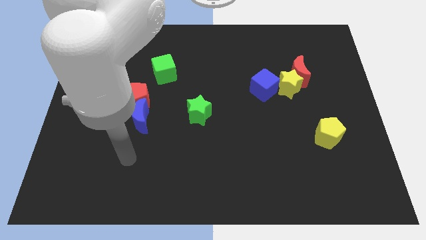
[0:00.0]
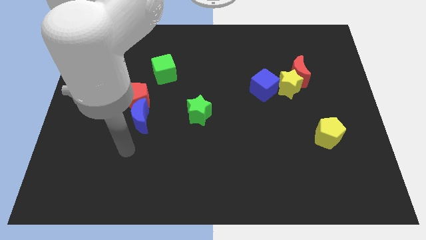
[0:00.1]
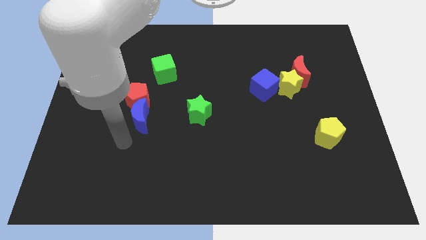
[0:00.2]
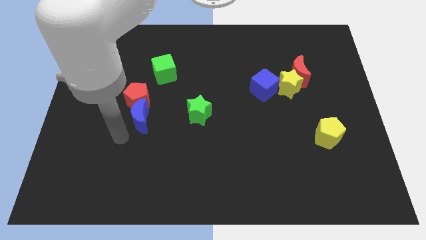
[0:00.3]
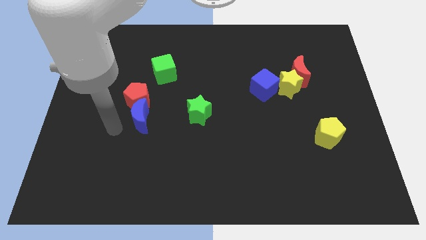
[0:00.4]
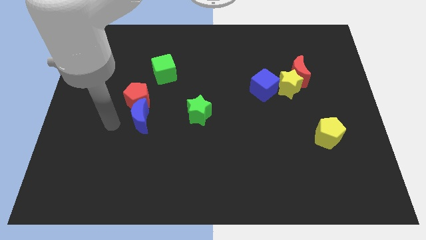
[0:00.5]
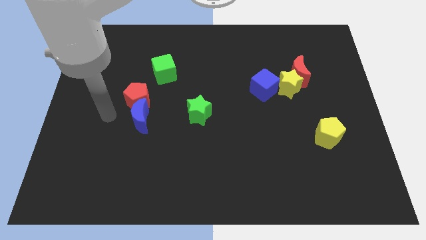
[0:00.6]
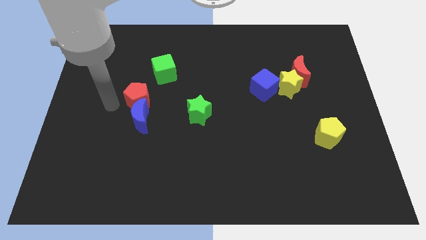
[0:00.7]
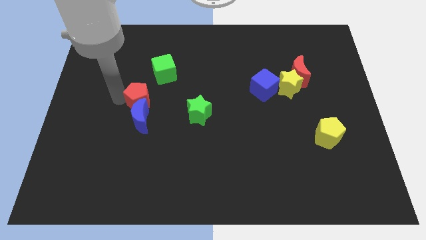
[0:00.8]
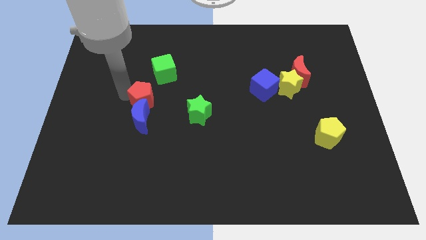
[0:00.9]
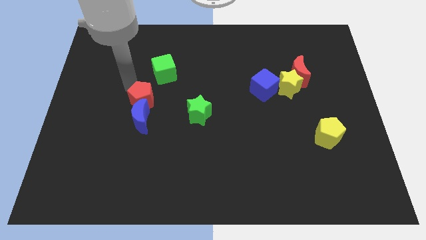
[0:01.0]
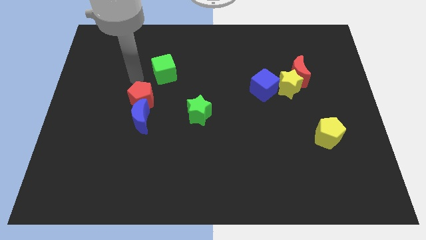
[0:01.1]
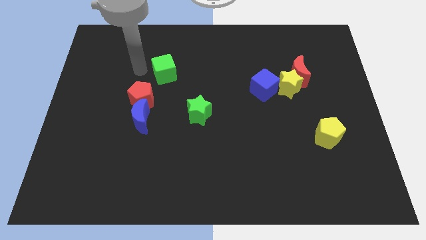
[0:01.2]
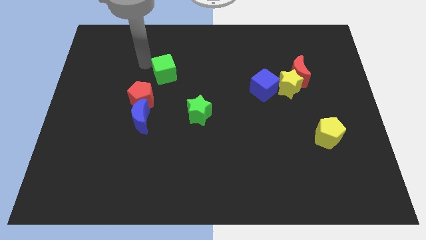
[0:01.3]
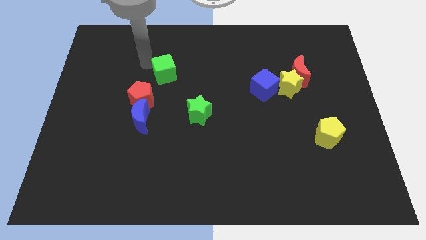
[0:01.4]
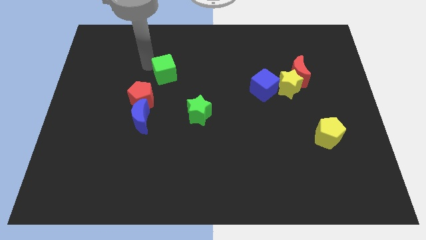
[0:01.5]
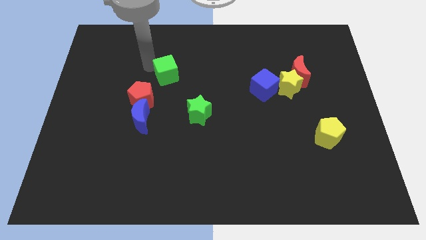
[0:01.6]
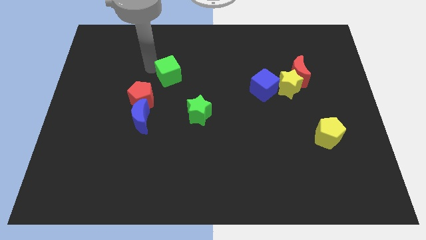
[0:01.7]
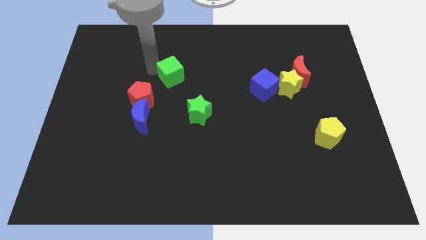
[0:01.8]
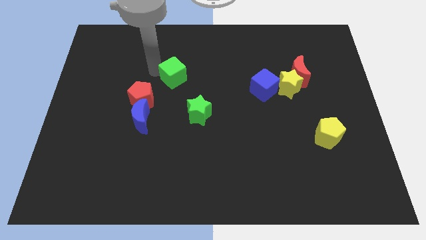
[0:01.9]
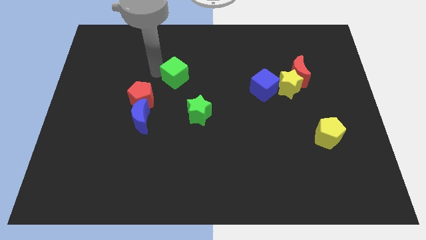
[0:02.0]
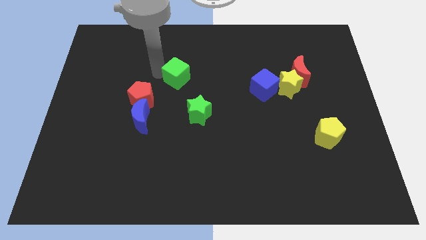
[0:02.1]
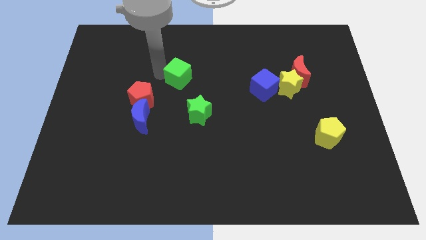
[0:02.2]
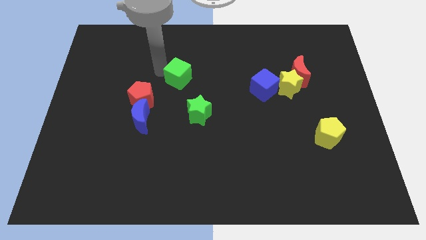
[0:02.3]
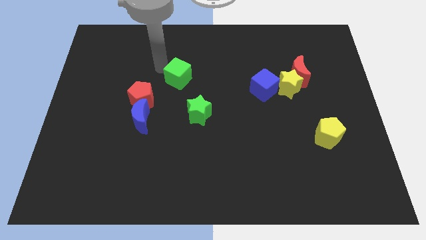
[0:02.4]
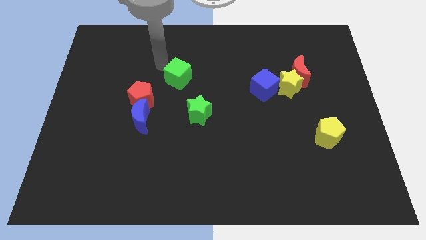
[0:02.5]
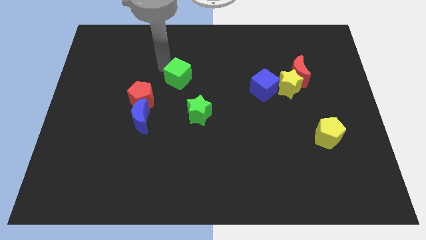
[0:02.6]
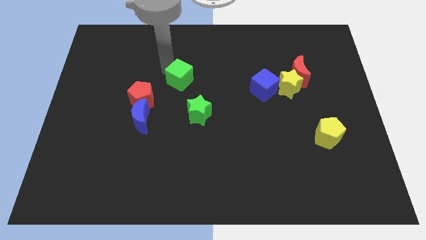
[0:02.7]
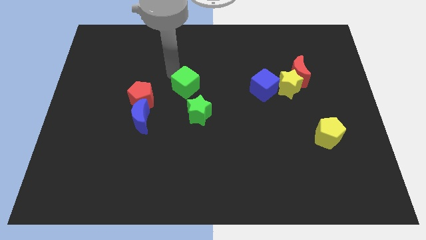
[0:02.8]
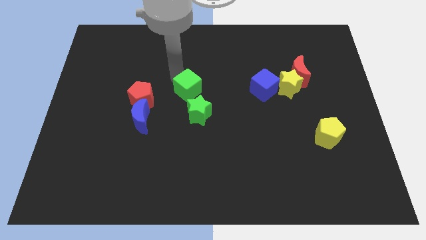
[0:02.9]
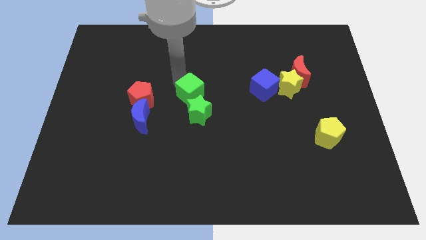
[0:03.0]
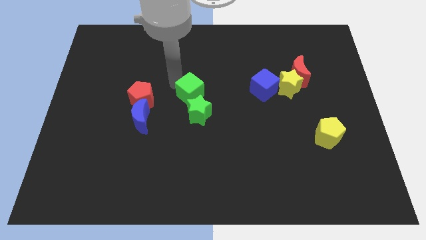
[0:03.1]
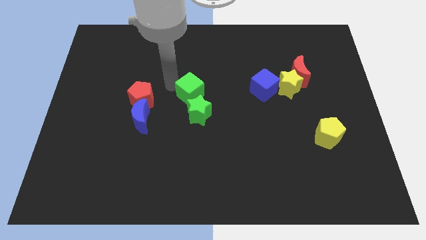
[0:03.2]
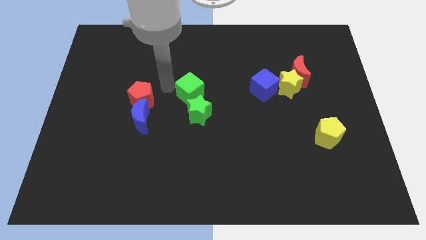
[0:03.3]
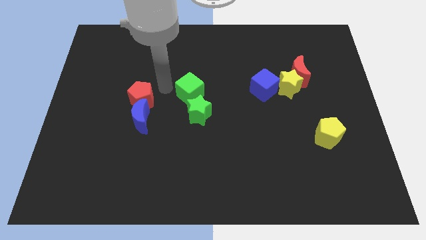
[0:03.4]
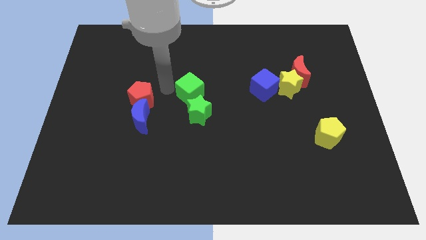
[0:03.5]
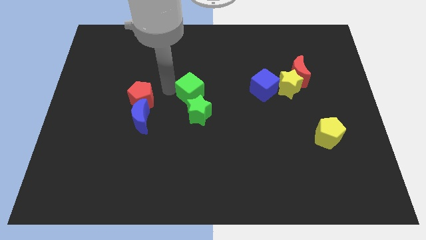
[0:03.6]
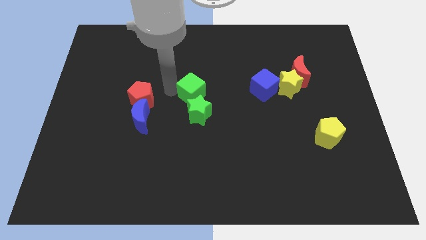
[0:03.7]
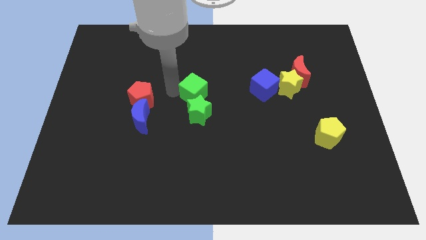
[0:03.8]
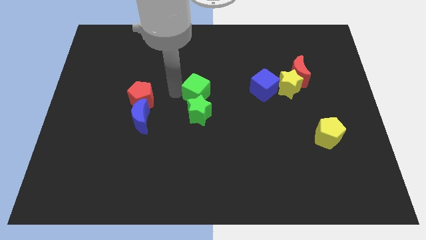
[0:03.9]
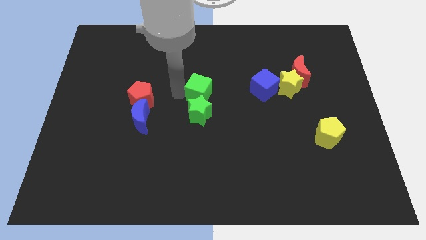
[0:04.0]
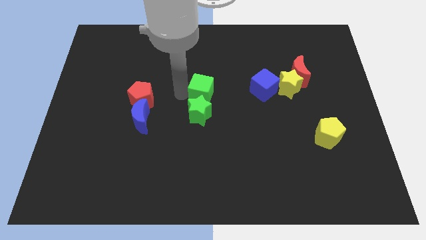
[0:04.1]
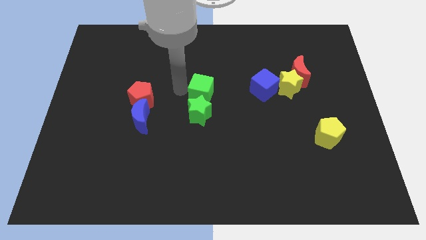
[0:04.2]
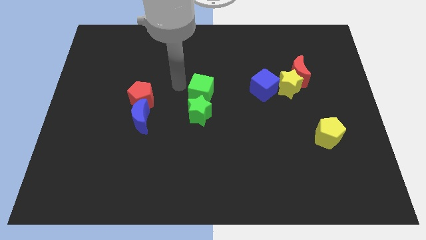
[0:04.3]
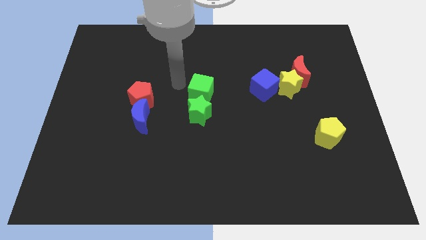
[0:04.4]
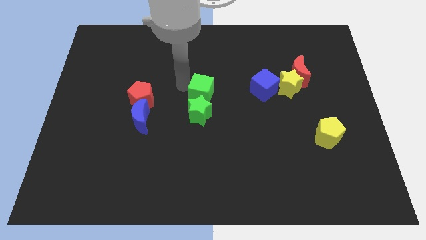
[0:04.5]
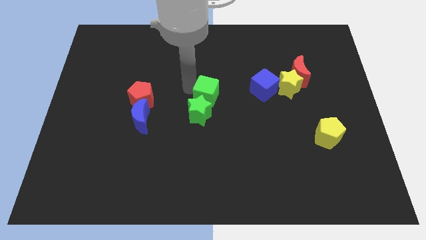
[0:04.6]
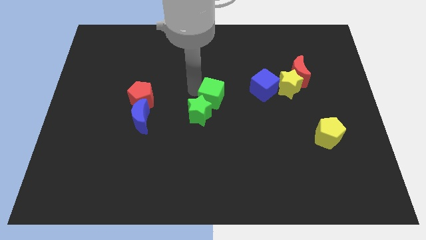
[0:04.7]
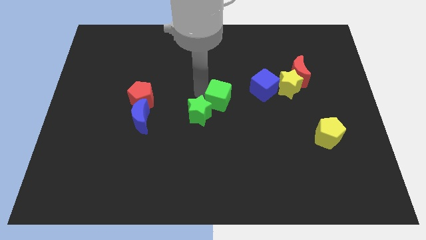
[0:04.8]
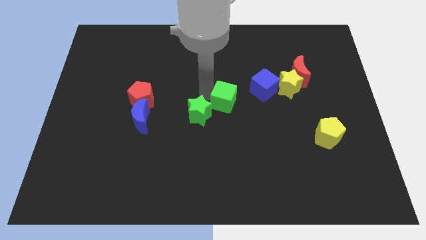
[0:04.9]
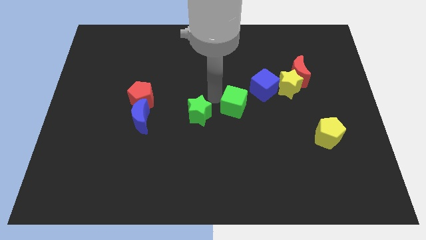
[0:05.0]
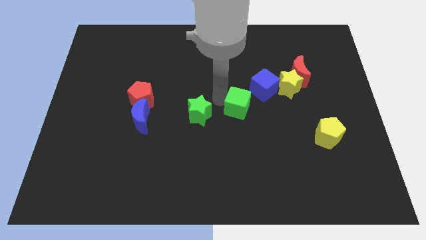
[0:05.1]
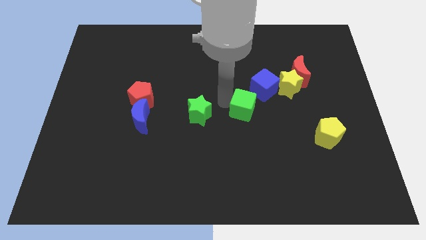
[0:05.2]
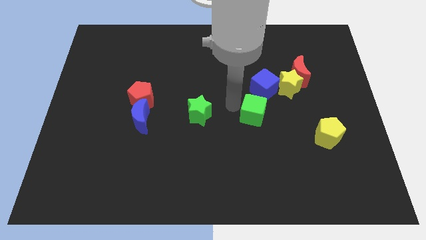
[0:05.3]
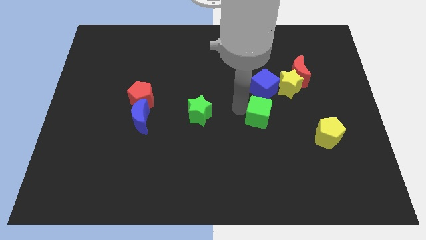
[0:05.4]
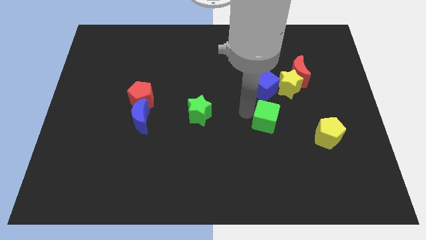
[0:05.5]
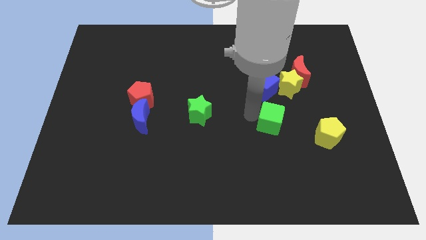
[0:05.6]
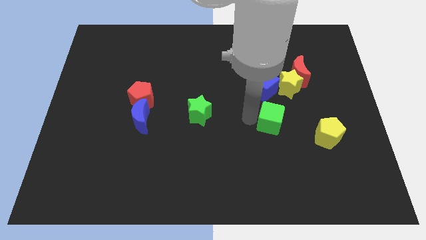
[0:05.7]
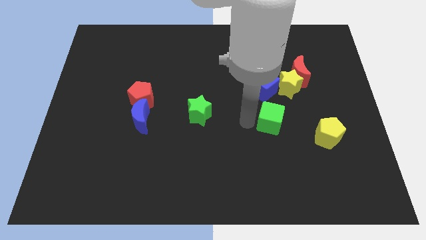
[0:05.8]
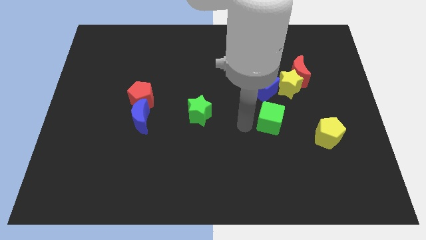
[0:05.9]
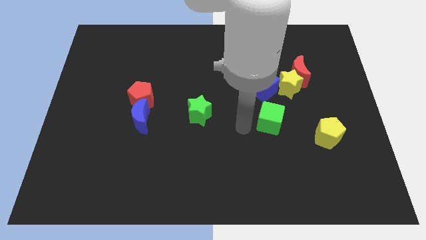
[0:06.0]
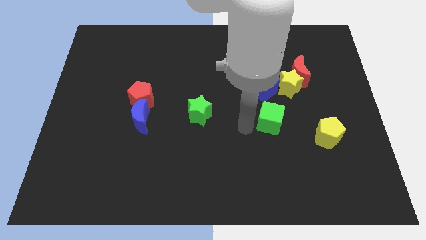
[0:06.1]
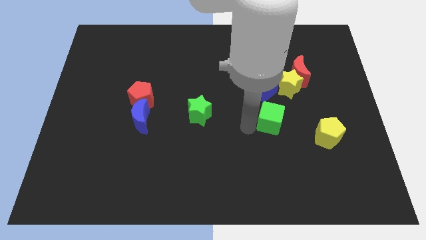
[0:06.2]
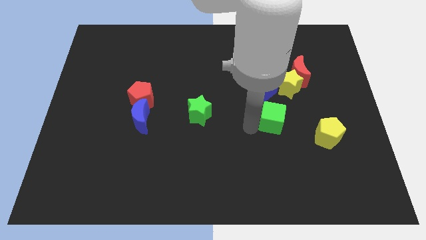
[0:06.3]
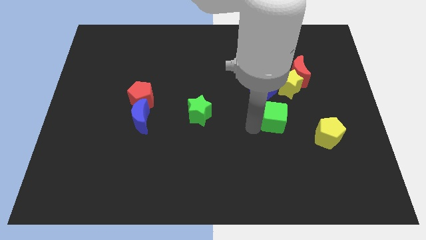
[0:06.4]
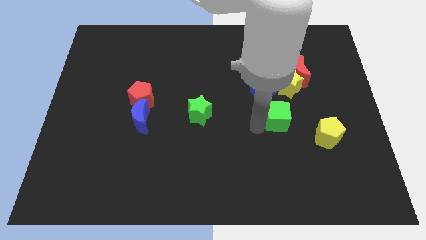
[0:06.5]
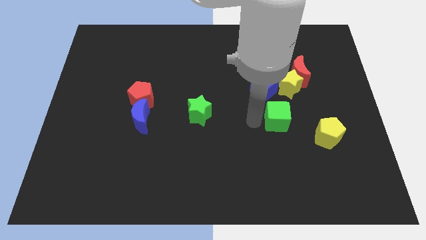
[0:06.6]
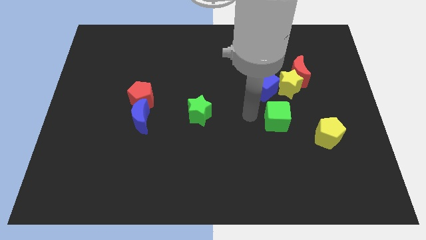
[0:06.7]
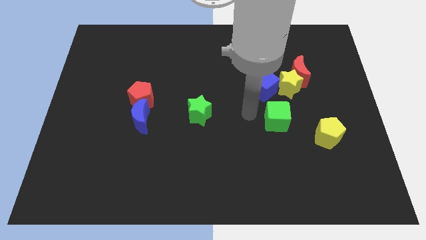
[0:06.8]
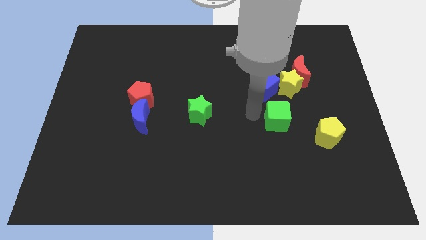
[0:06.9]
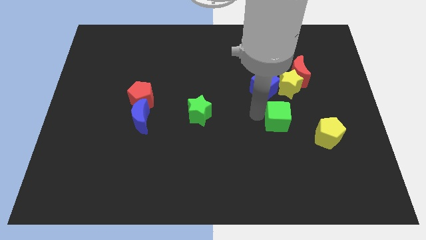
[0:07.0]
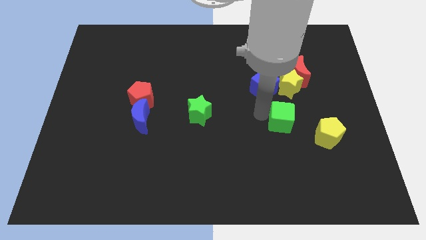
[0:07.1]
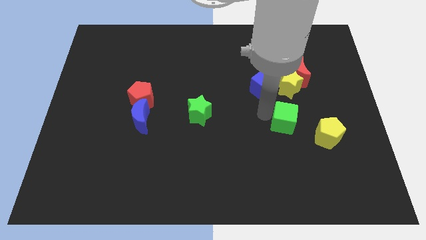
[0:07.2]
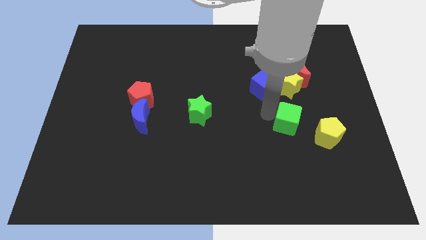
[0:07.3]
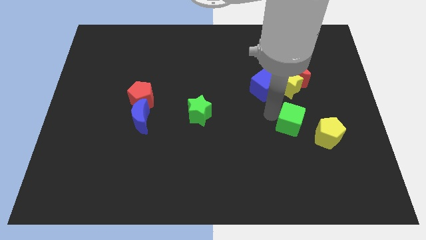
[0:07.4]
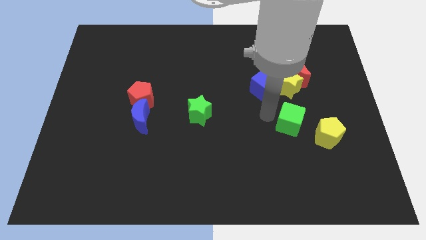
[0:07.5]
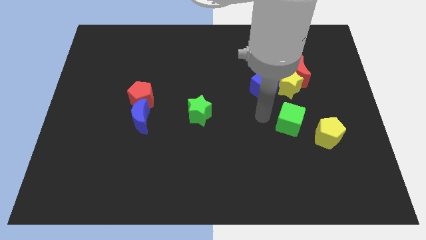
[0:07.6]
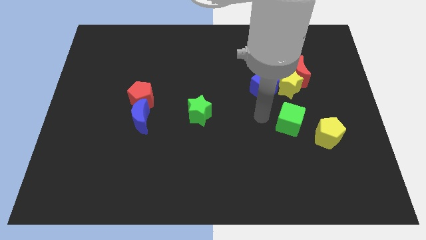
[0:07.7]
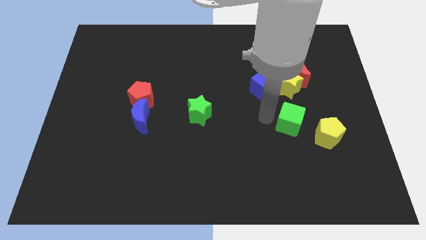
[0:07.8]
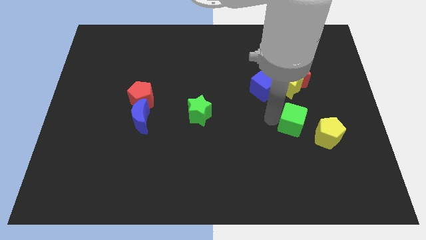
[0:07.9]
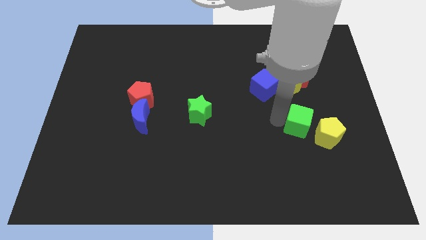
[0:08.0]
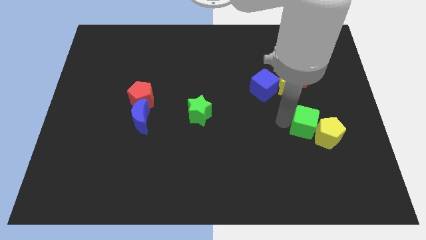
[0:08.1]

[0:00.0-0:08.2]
push the green cube towards the yellow pentagon
